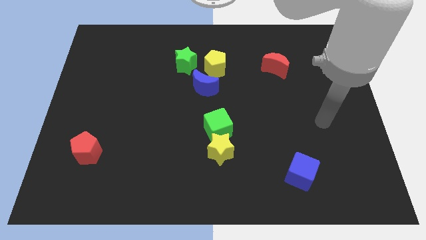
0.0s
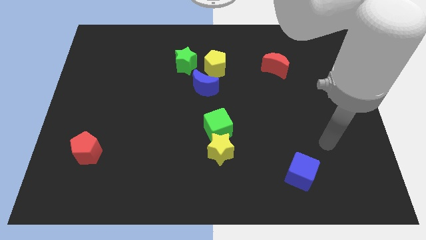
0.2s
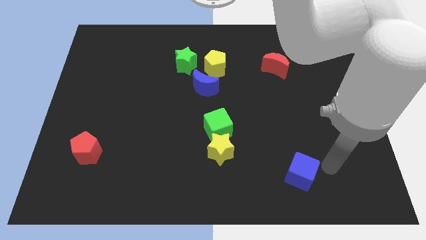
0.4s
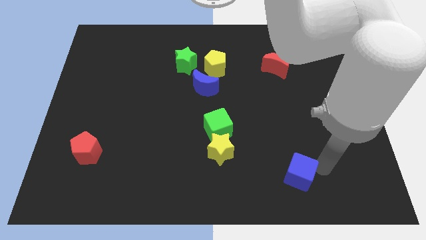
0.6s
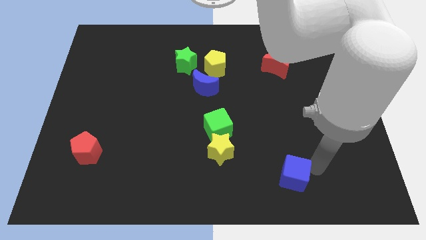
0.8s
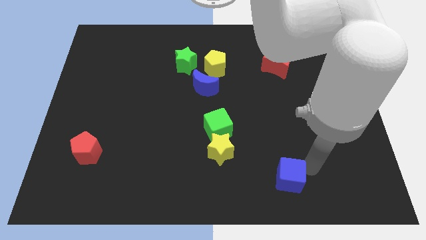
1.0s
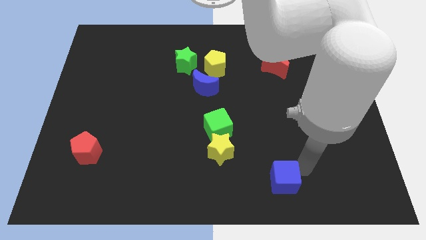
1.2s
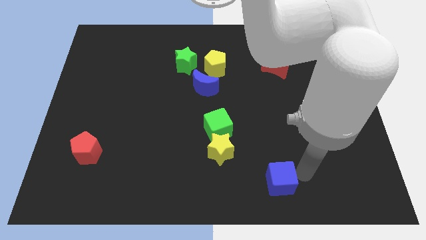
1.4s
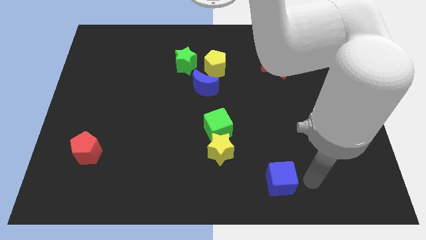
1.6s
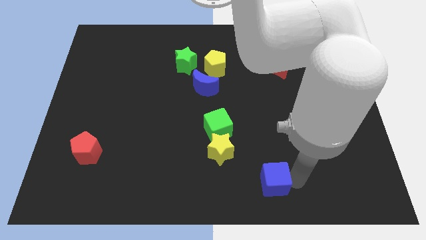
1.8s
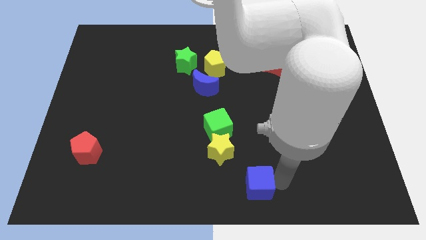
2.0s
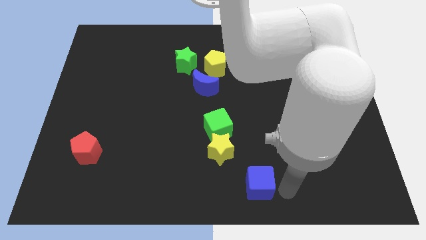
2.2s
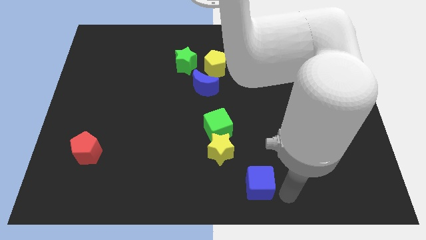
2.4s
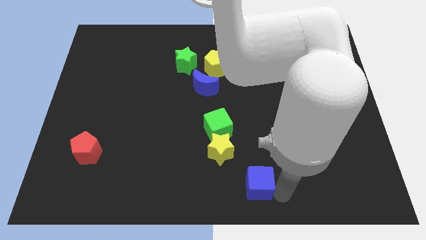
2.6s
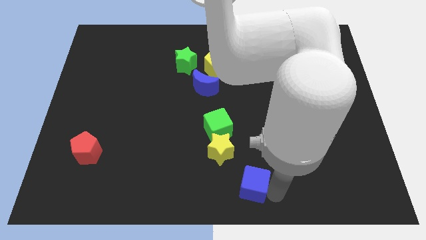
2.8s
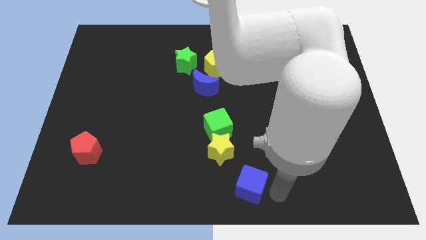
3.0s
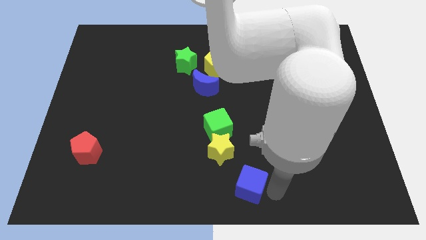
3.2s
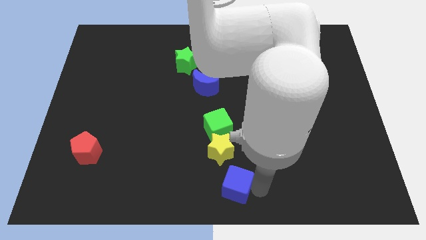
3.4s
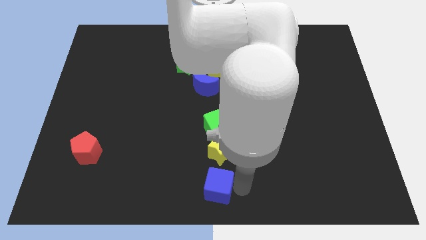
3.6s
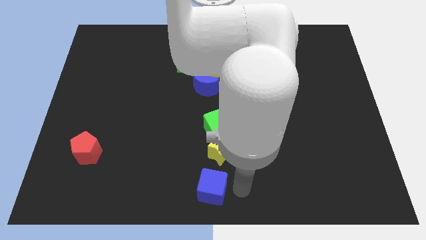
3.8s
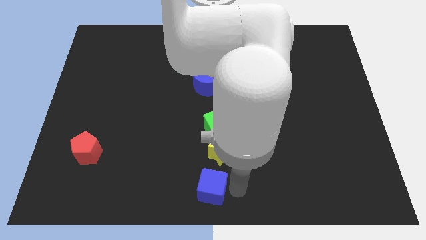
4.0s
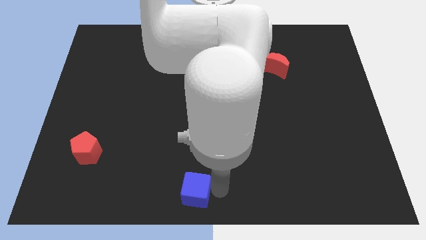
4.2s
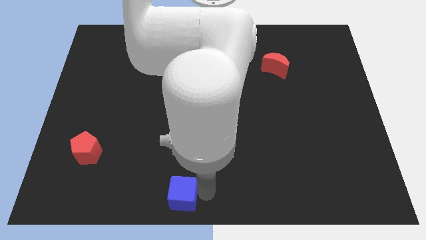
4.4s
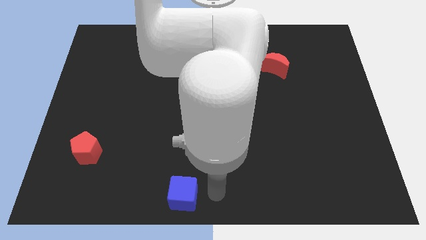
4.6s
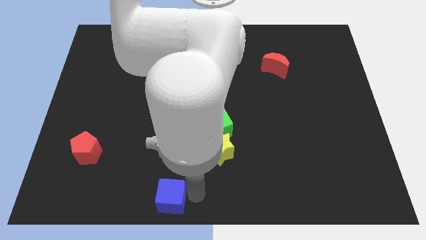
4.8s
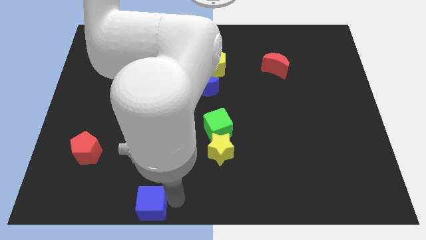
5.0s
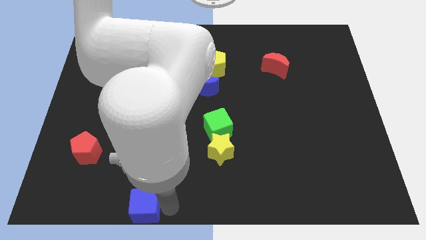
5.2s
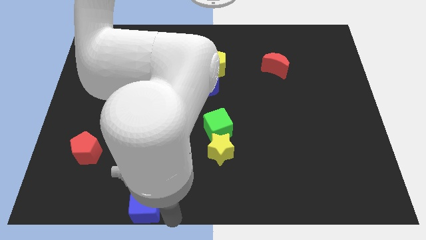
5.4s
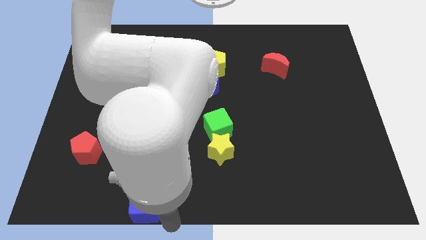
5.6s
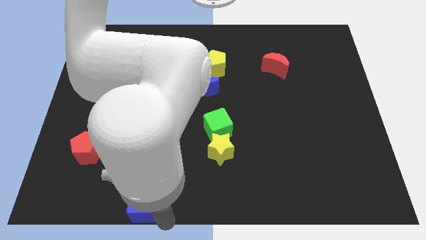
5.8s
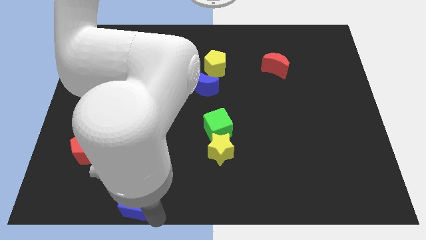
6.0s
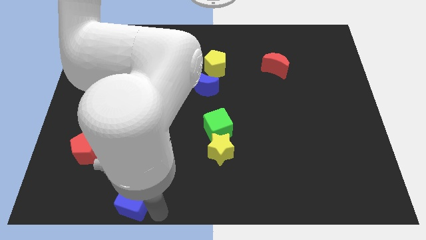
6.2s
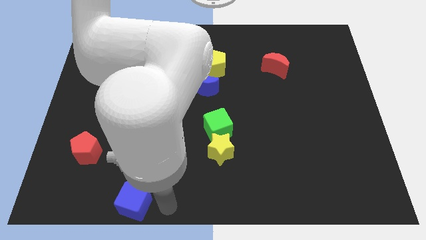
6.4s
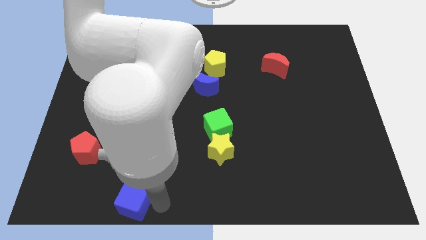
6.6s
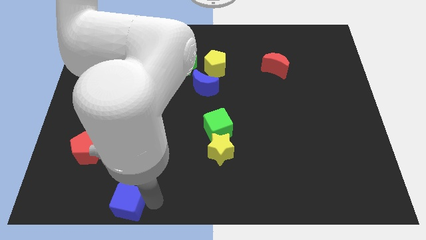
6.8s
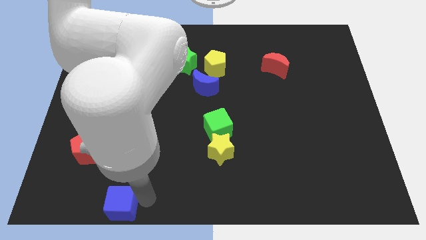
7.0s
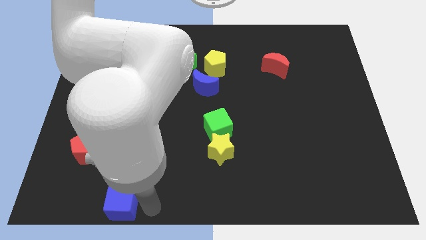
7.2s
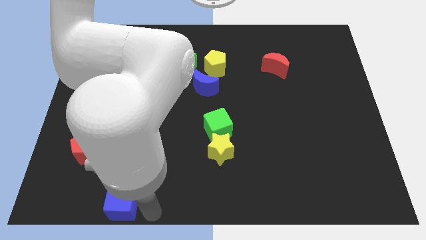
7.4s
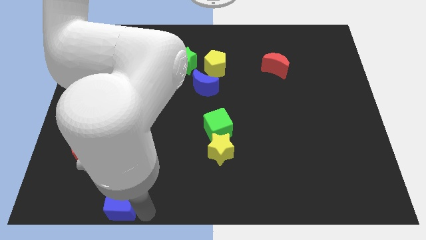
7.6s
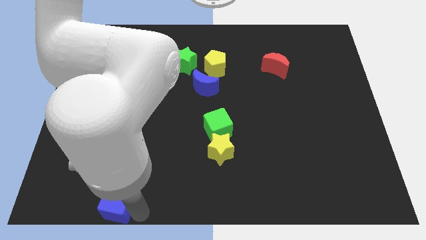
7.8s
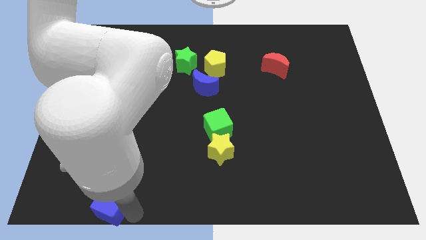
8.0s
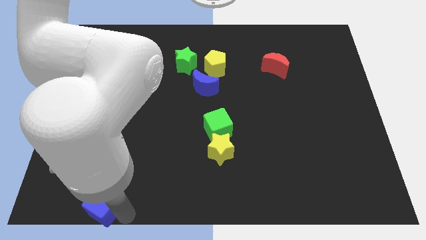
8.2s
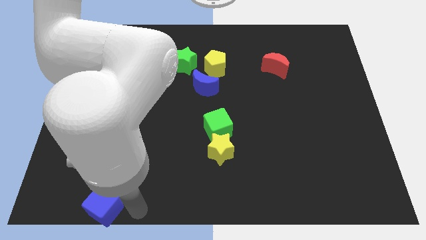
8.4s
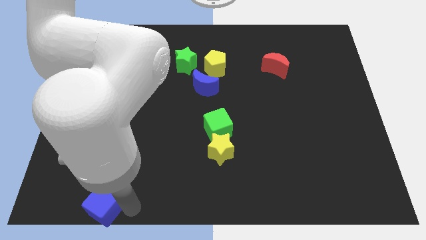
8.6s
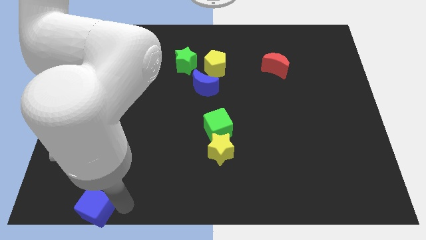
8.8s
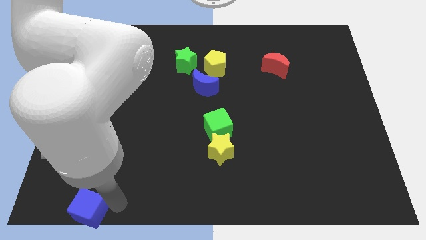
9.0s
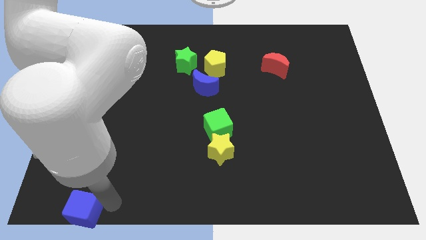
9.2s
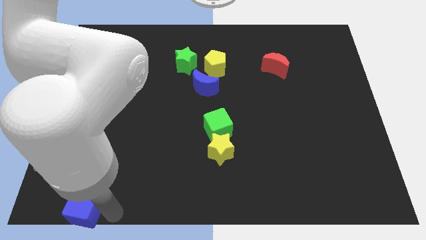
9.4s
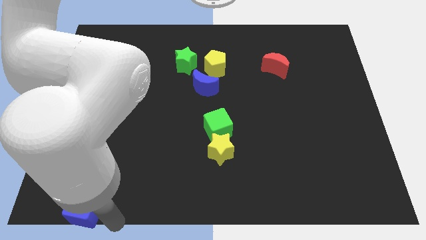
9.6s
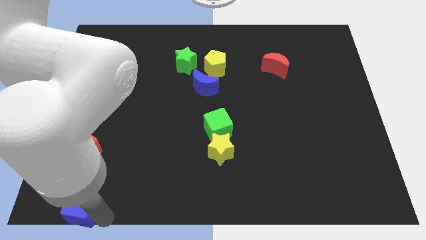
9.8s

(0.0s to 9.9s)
put the blue cube to the bottom left corner

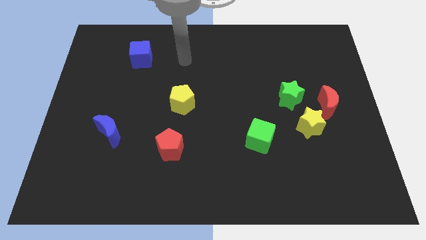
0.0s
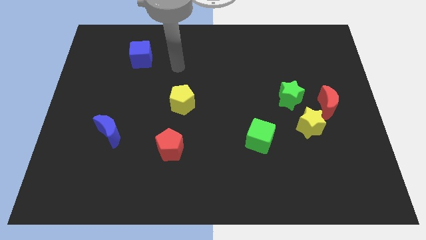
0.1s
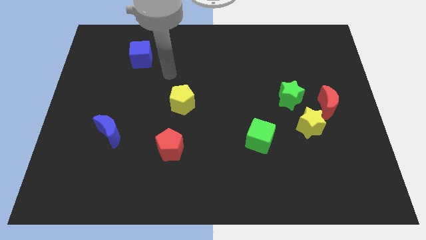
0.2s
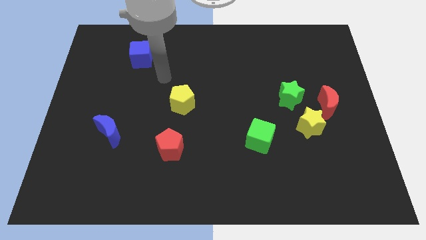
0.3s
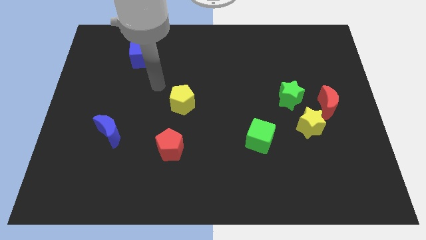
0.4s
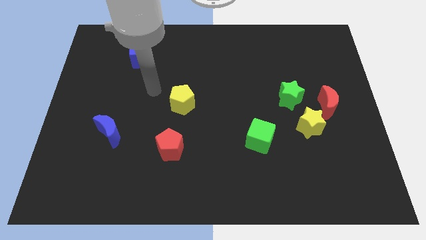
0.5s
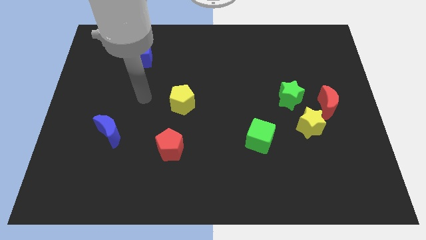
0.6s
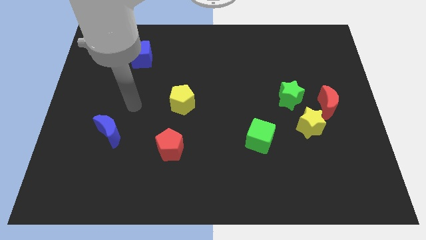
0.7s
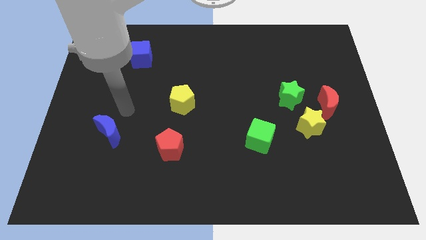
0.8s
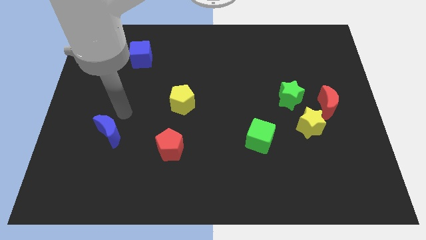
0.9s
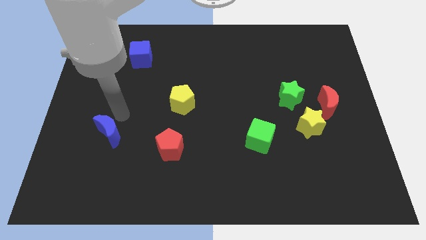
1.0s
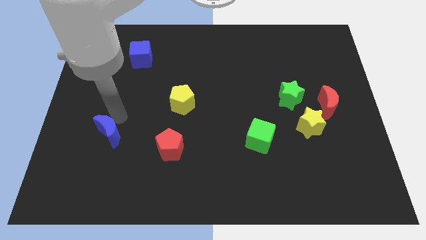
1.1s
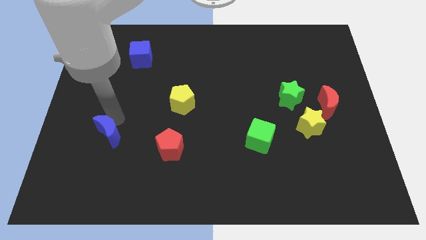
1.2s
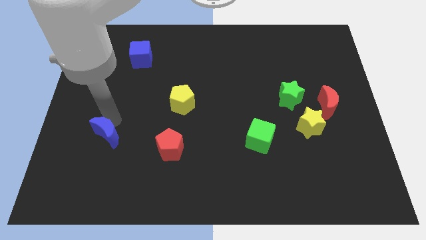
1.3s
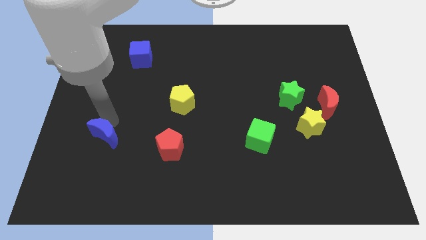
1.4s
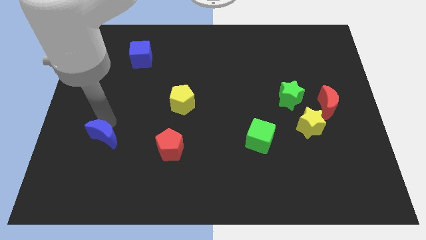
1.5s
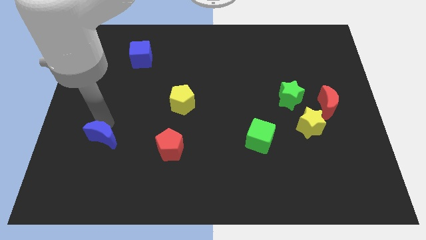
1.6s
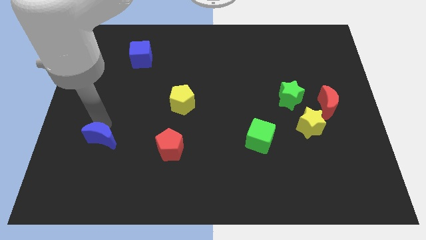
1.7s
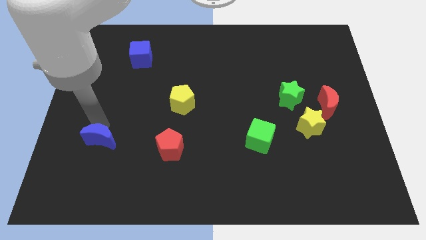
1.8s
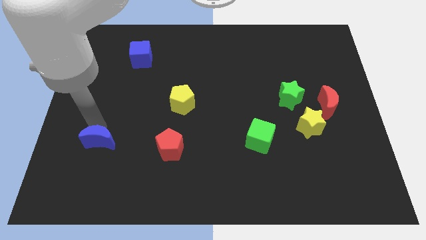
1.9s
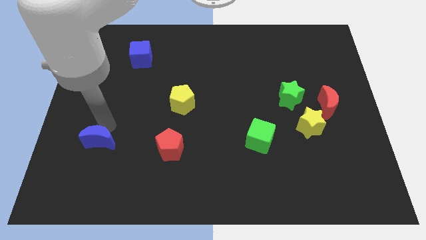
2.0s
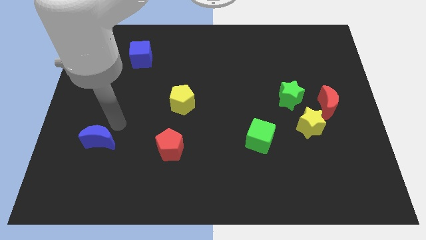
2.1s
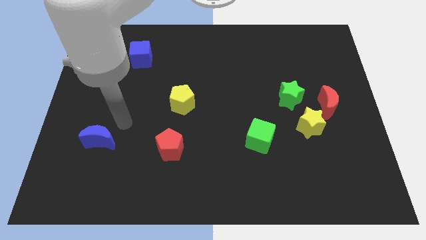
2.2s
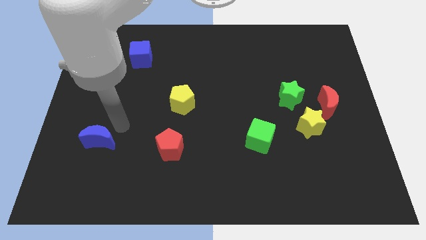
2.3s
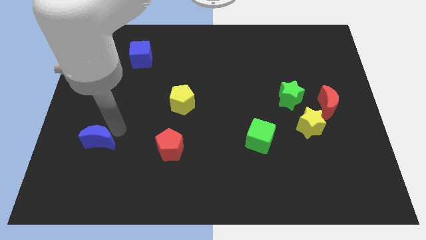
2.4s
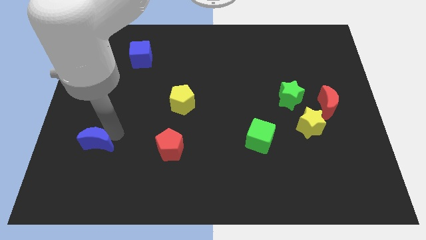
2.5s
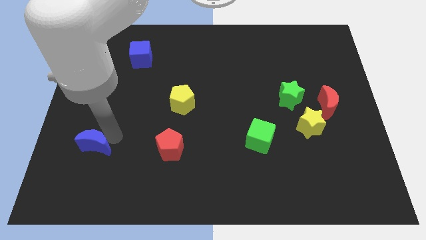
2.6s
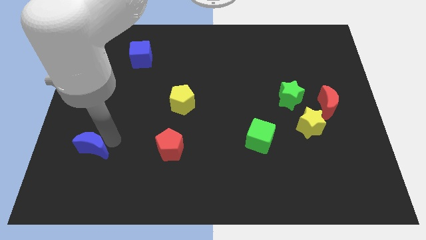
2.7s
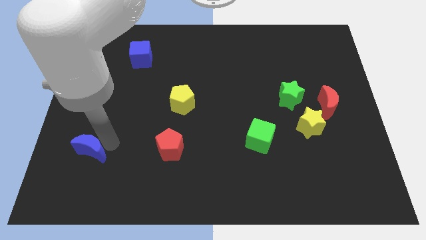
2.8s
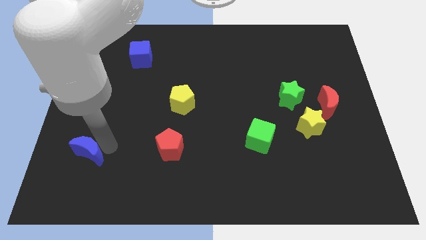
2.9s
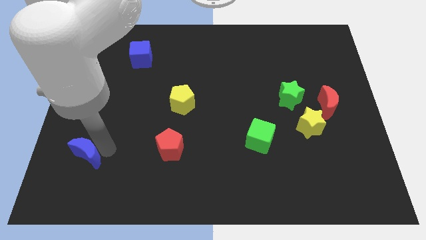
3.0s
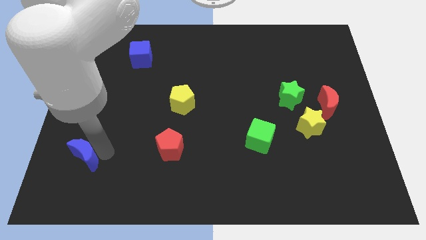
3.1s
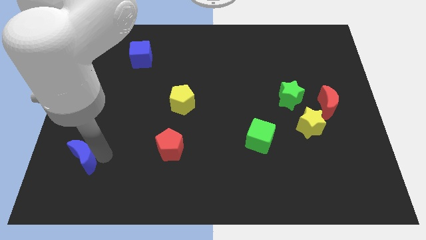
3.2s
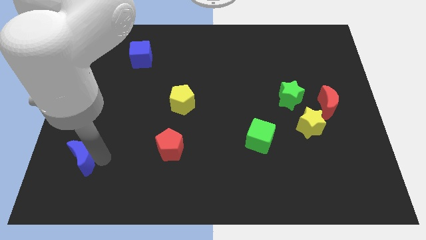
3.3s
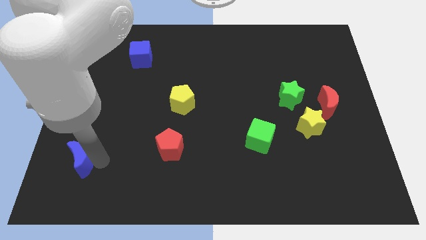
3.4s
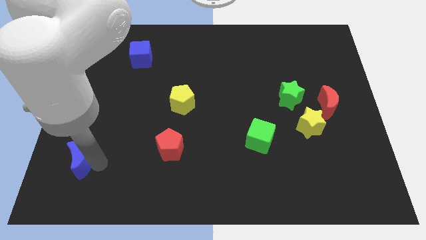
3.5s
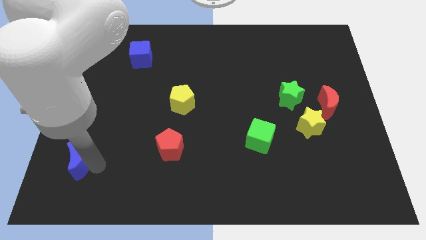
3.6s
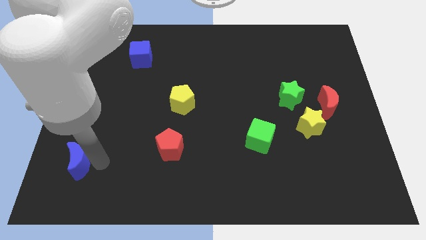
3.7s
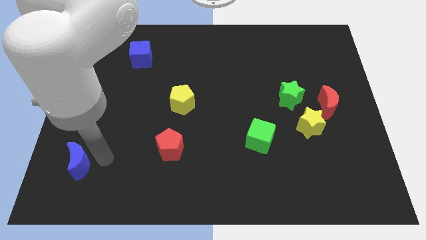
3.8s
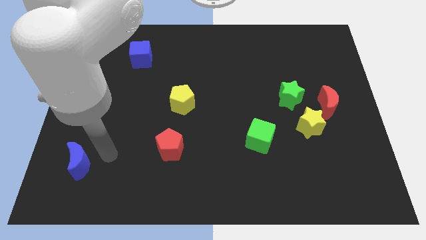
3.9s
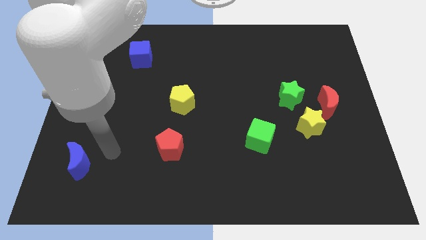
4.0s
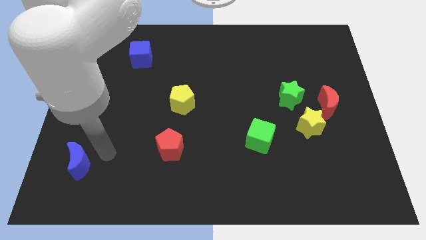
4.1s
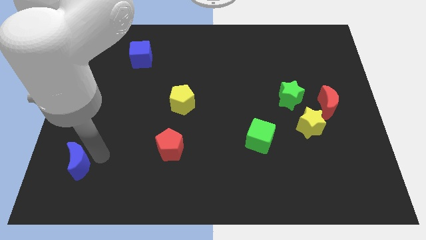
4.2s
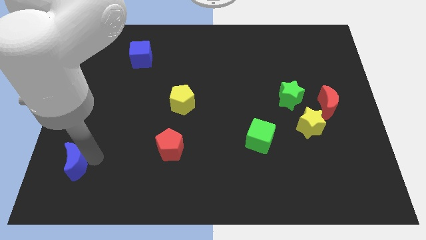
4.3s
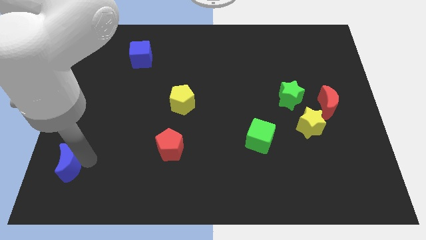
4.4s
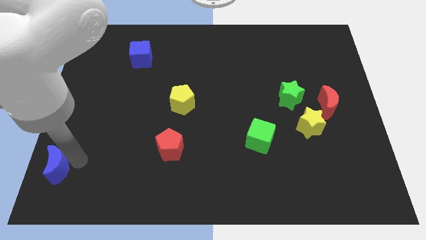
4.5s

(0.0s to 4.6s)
put the blue moon to the bottom left corner
